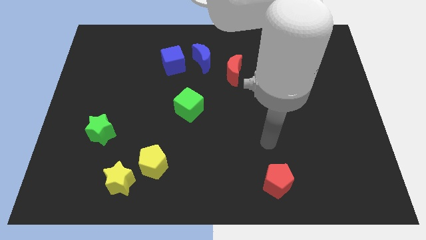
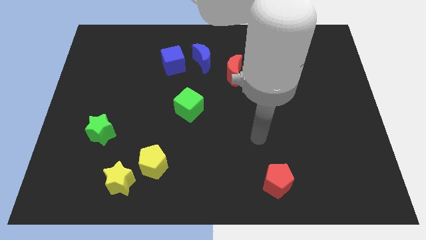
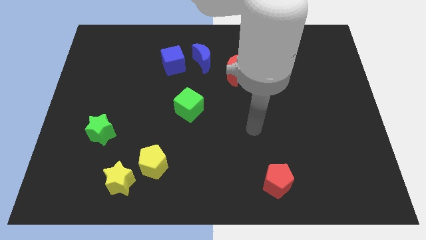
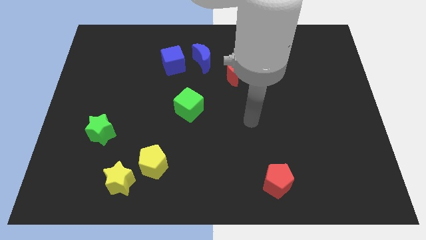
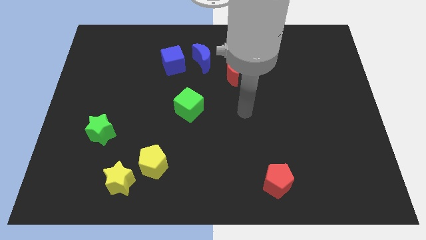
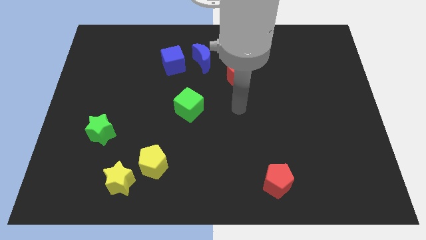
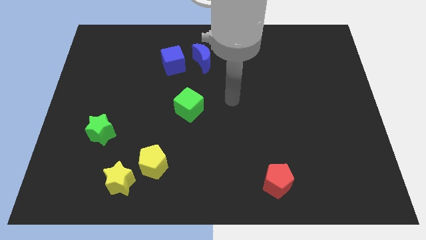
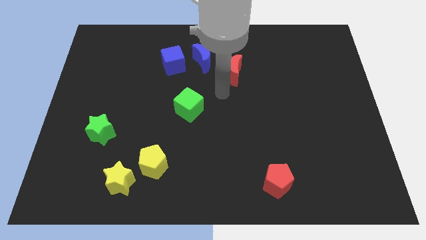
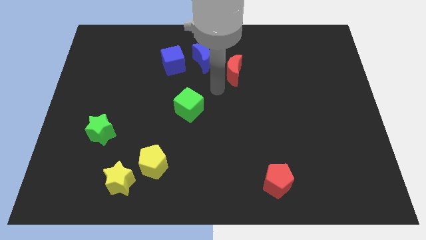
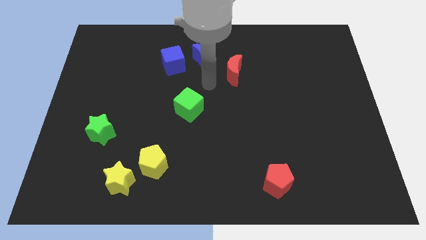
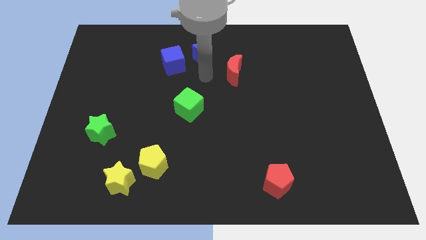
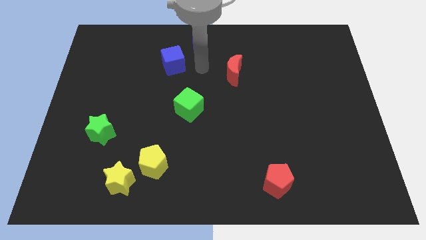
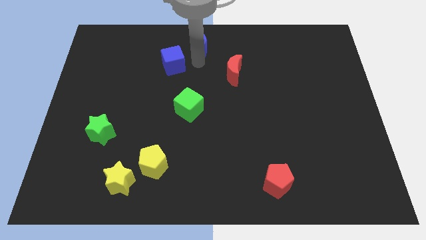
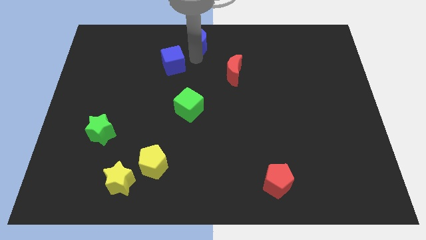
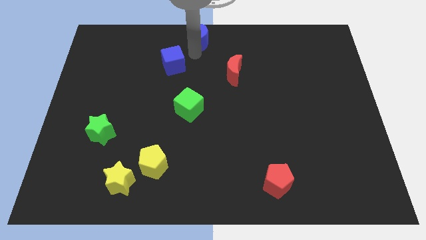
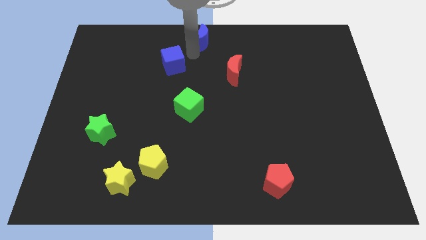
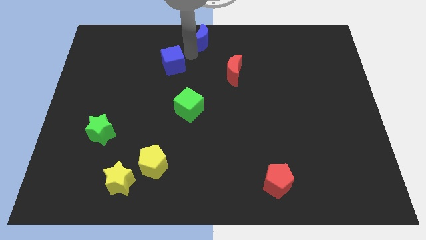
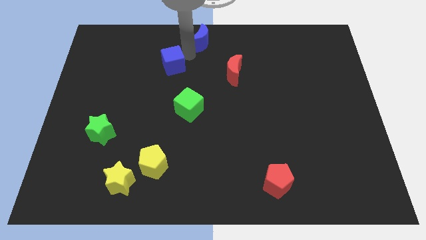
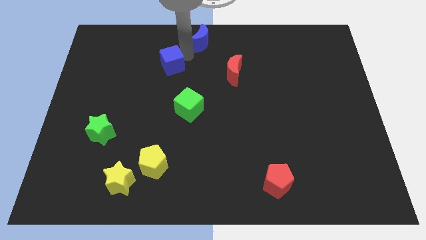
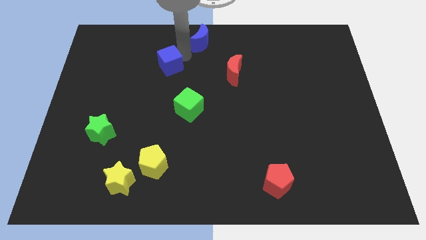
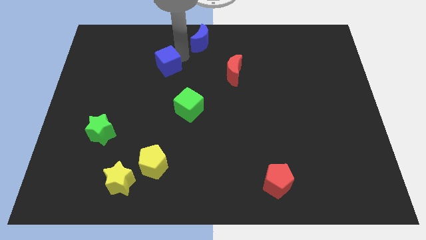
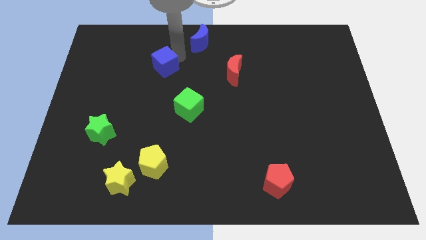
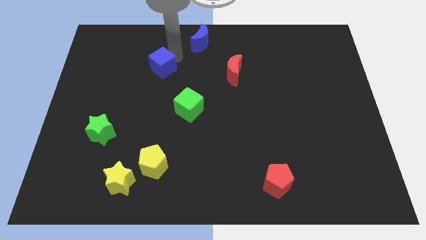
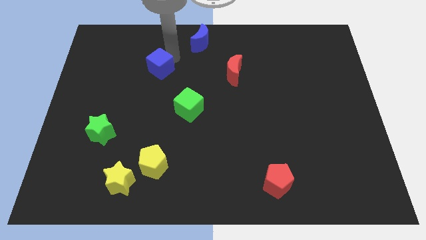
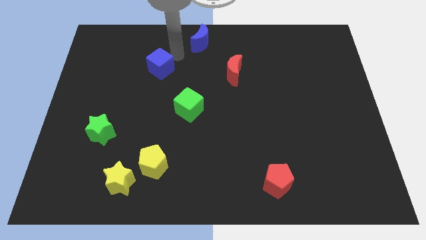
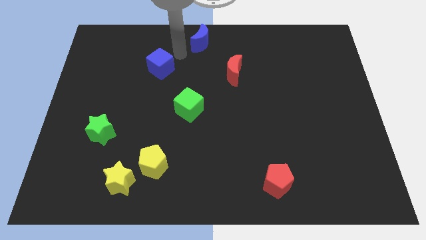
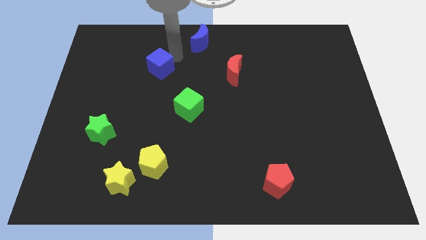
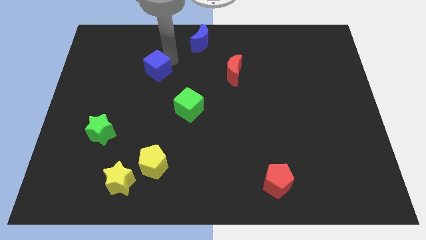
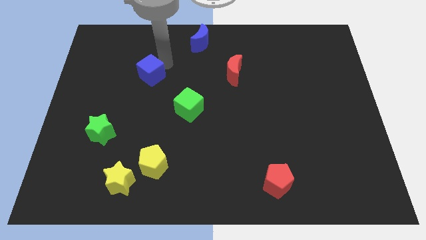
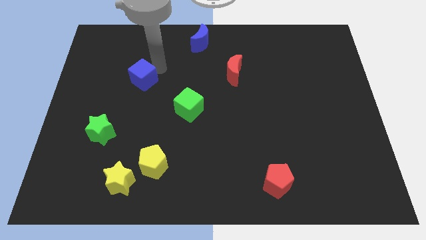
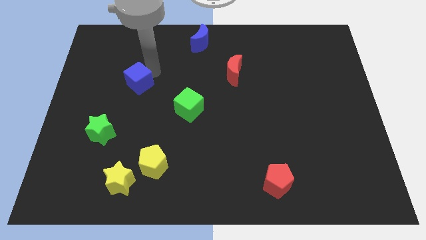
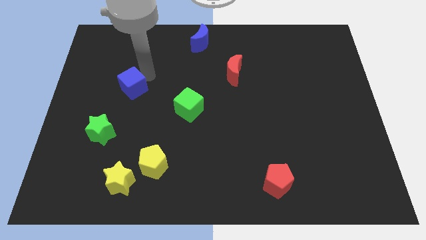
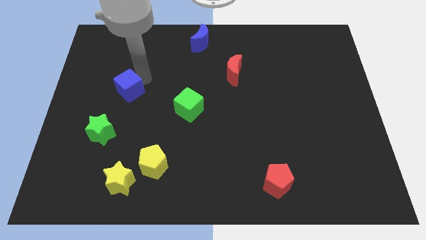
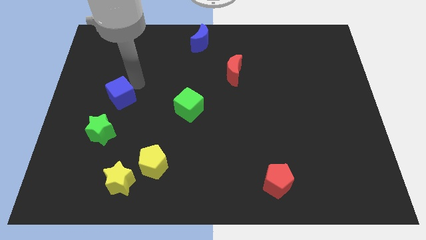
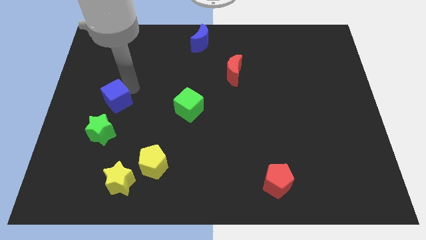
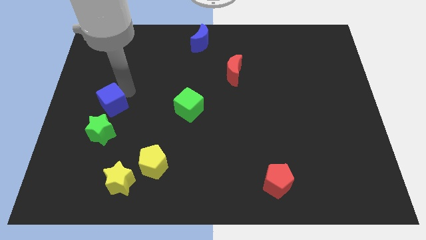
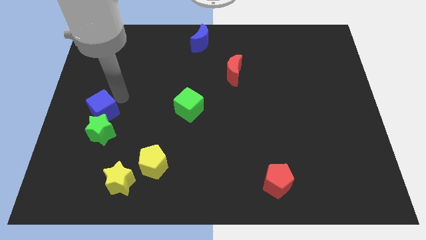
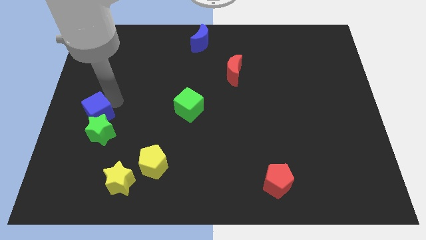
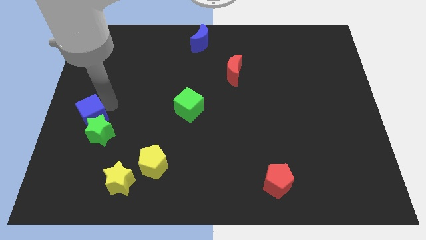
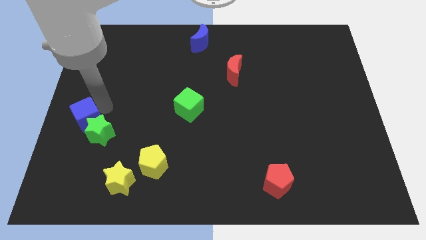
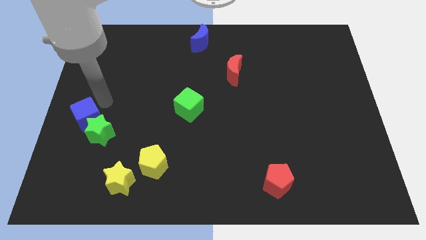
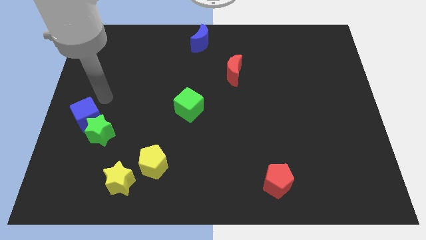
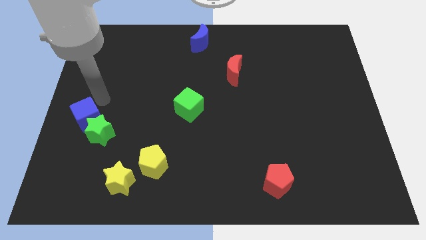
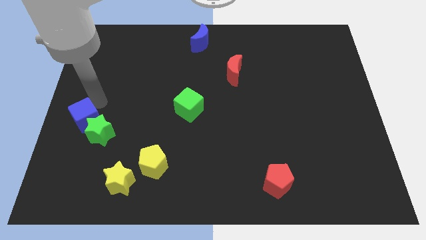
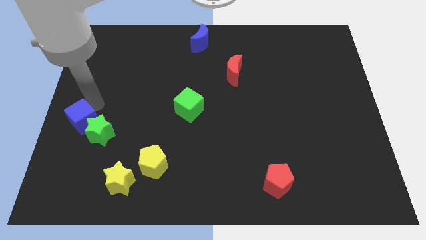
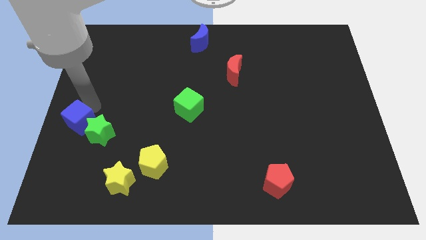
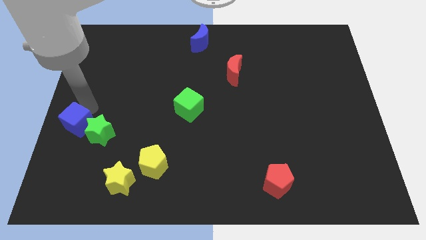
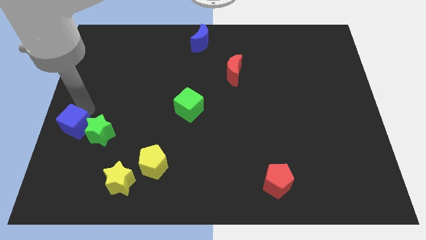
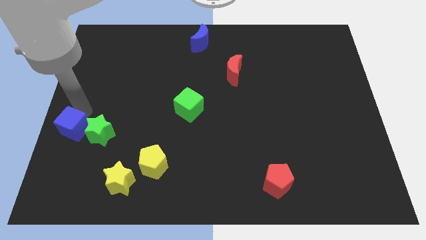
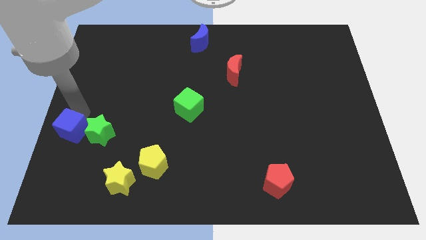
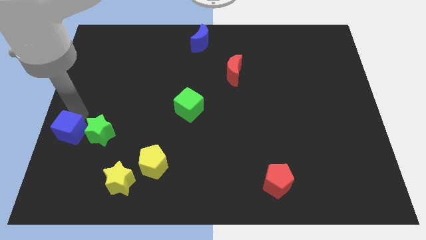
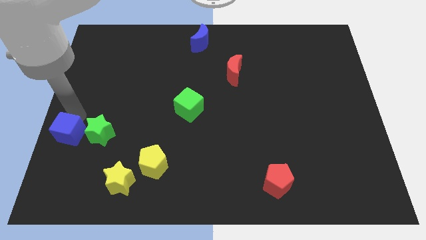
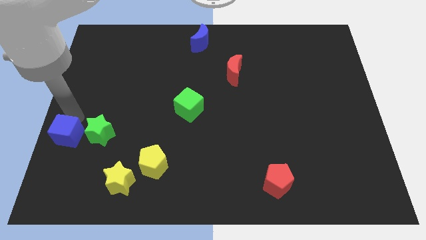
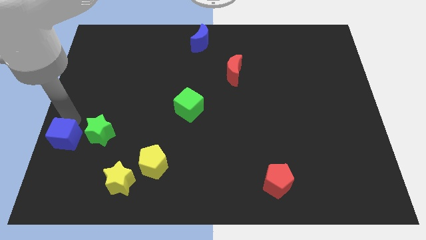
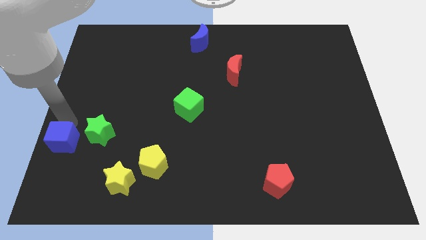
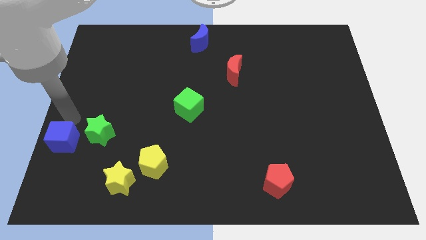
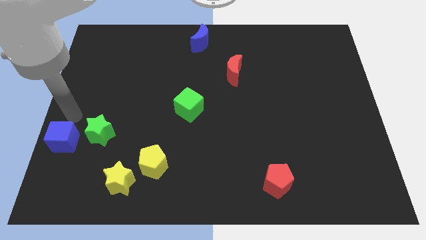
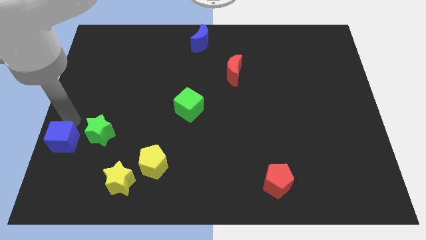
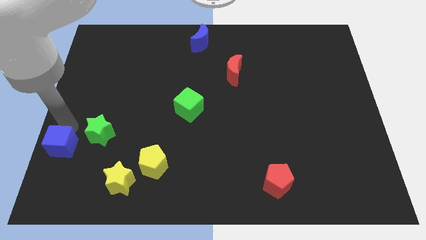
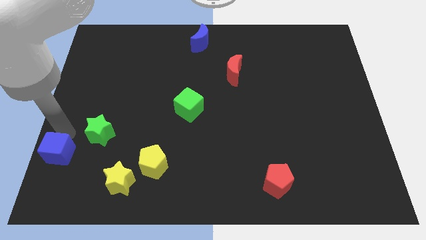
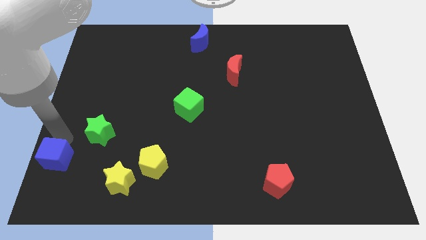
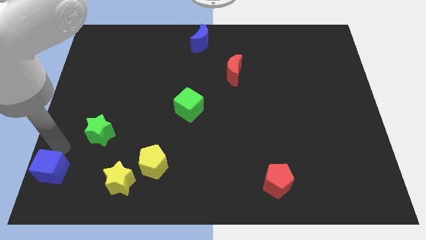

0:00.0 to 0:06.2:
put the blue cube to the bottom left of the board
